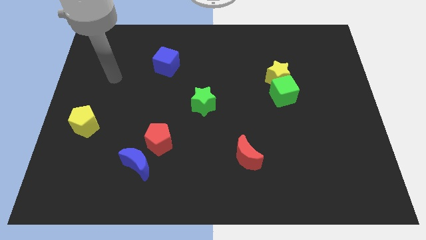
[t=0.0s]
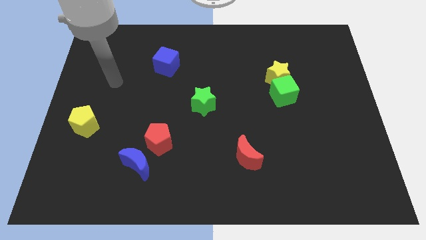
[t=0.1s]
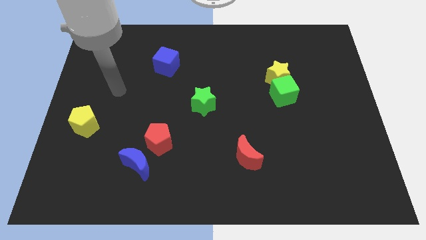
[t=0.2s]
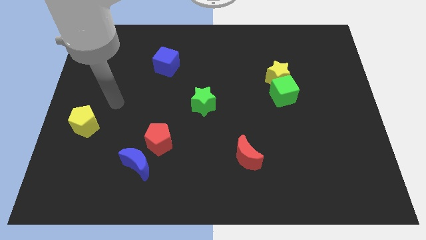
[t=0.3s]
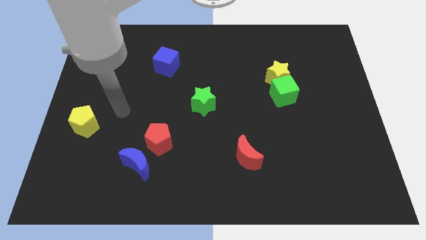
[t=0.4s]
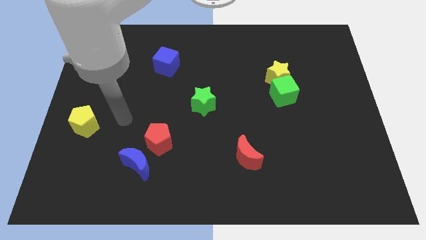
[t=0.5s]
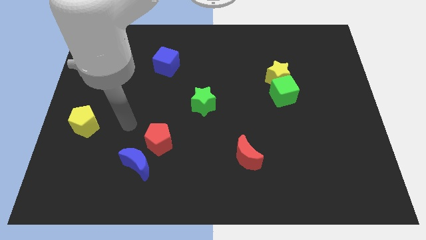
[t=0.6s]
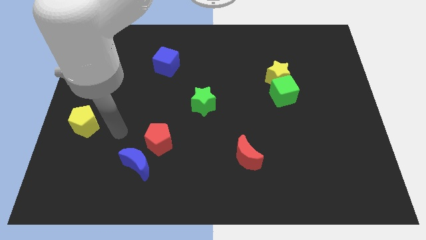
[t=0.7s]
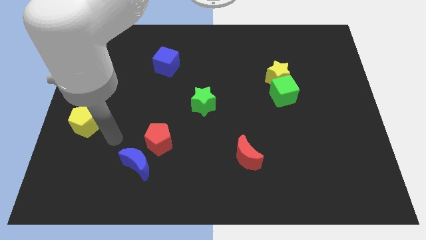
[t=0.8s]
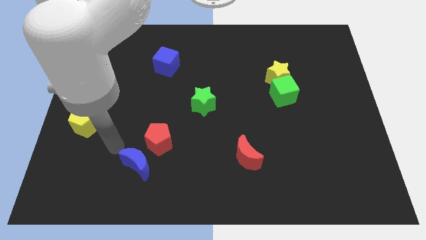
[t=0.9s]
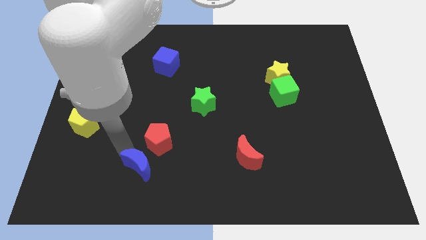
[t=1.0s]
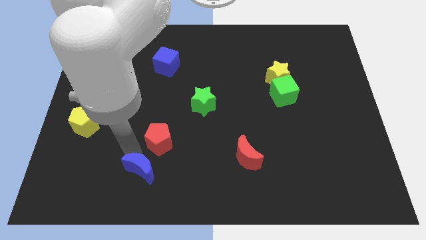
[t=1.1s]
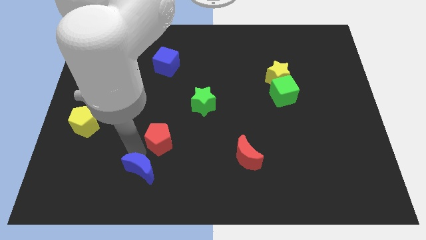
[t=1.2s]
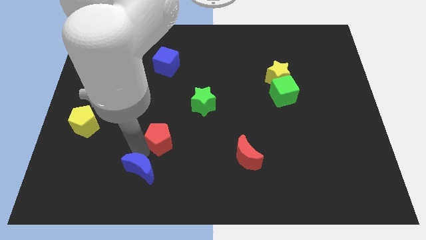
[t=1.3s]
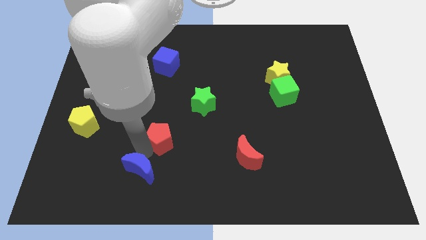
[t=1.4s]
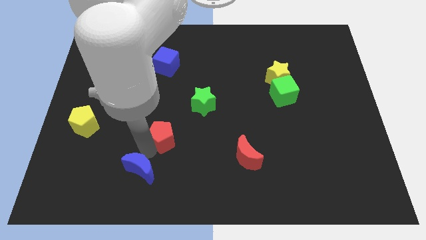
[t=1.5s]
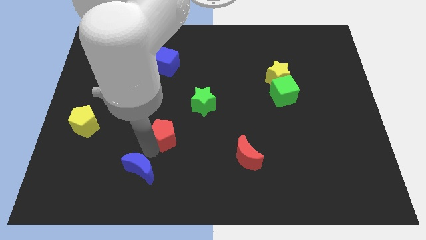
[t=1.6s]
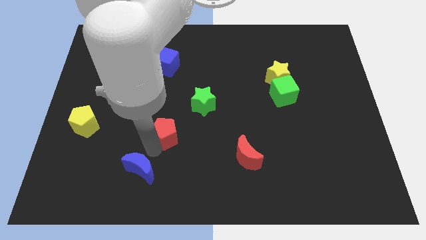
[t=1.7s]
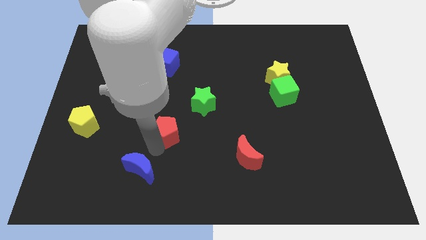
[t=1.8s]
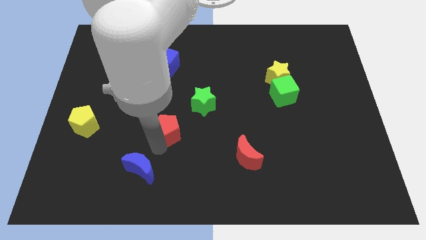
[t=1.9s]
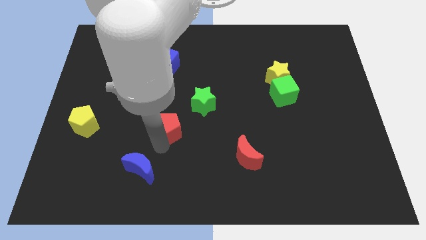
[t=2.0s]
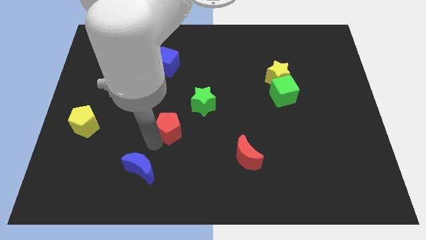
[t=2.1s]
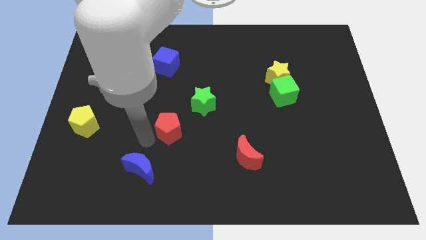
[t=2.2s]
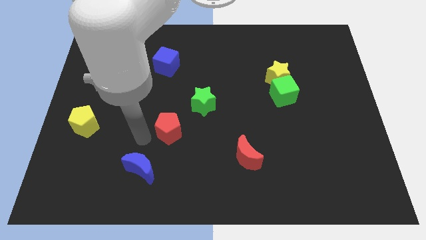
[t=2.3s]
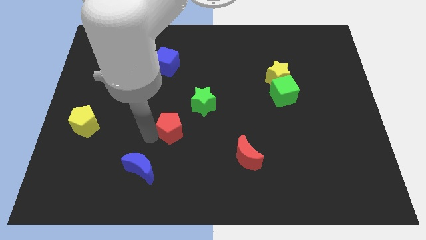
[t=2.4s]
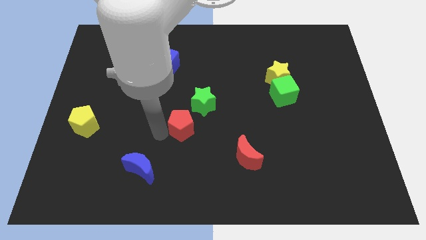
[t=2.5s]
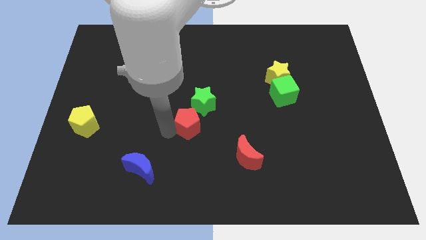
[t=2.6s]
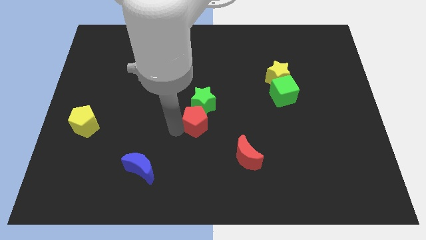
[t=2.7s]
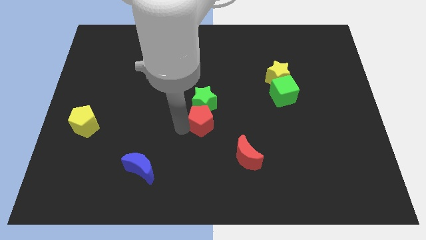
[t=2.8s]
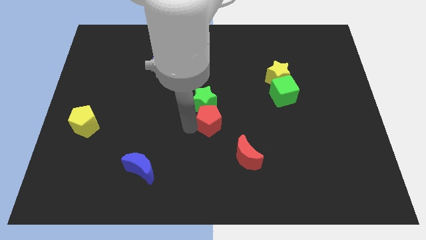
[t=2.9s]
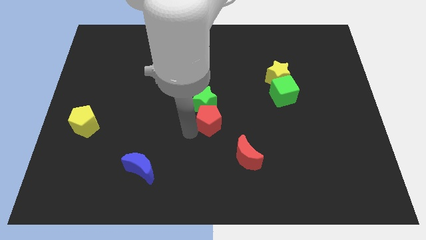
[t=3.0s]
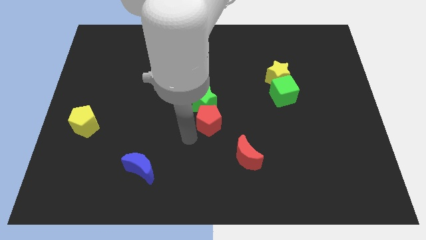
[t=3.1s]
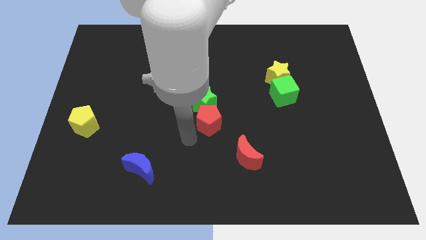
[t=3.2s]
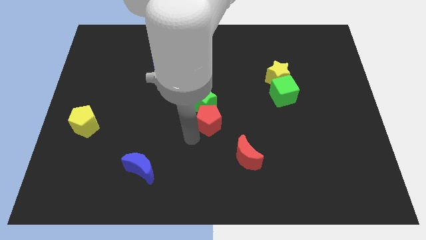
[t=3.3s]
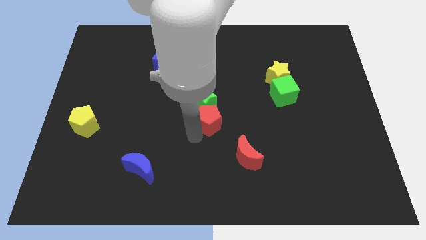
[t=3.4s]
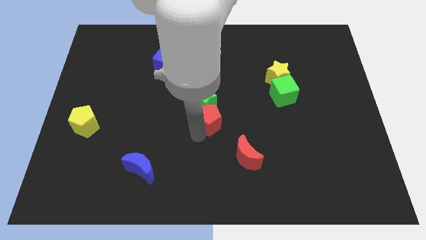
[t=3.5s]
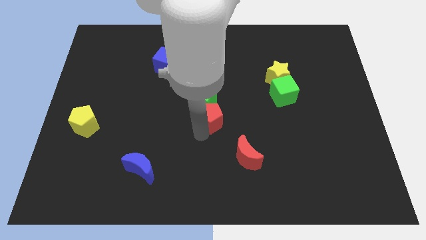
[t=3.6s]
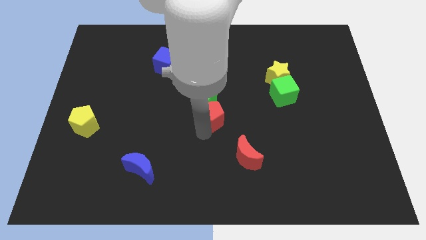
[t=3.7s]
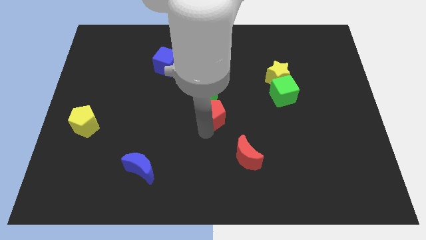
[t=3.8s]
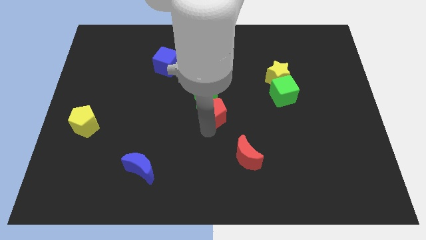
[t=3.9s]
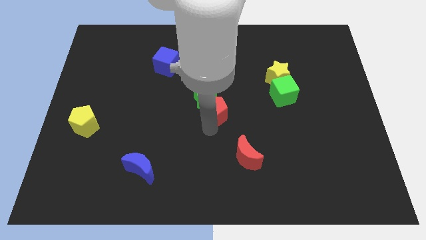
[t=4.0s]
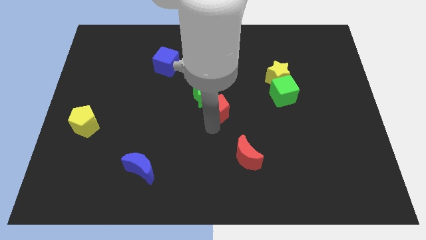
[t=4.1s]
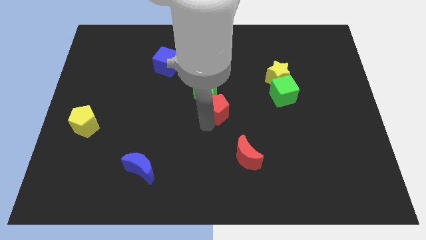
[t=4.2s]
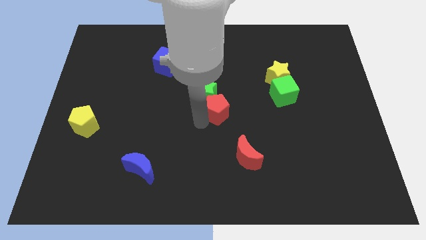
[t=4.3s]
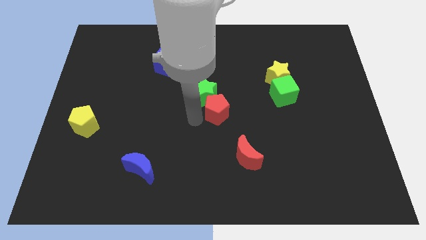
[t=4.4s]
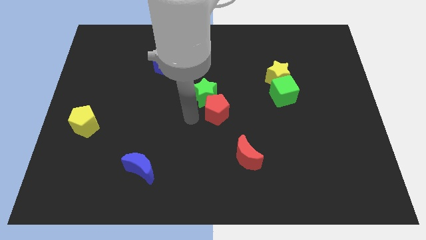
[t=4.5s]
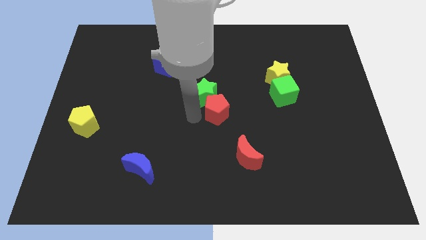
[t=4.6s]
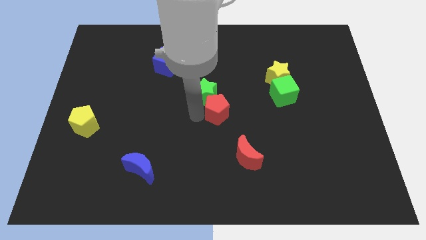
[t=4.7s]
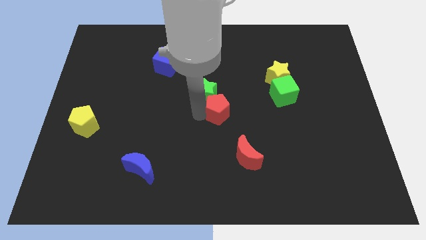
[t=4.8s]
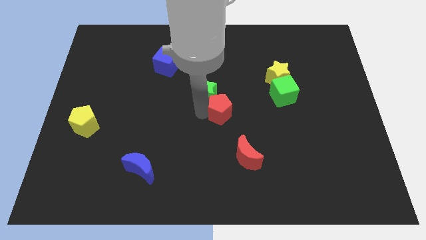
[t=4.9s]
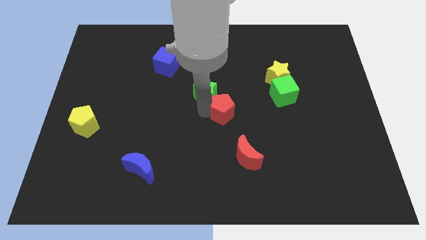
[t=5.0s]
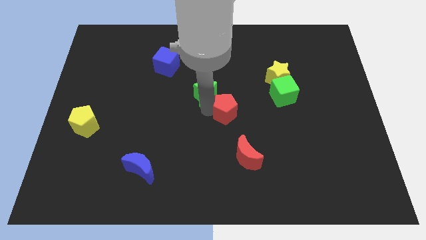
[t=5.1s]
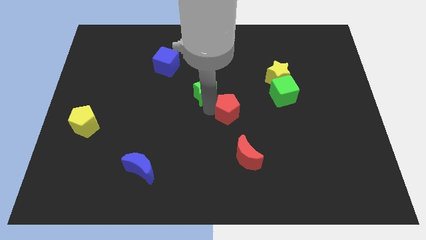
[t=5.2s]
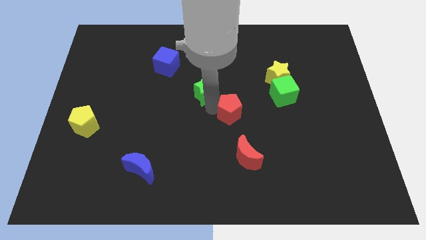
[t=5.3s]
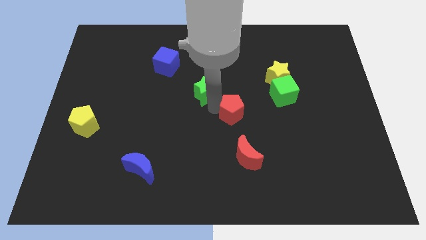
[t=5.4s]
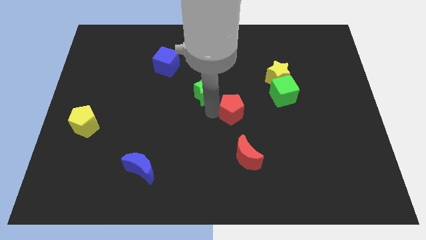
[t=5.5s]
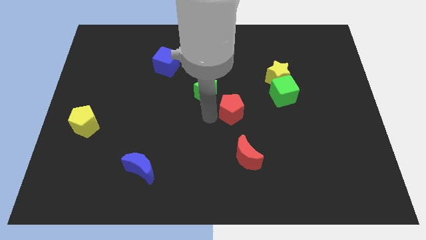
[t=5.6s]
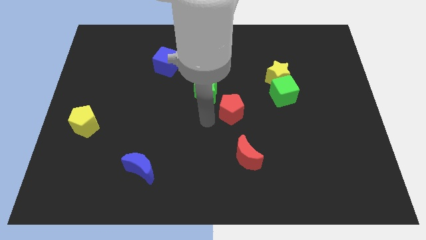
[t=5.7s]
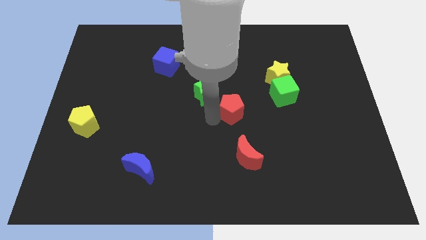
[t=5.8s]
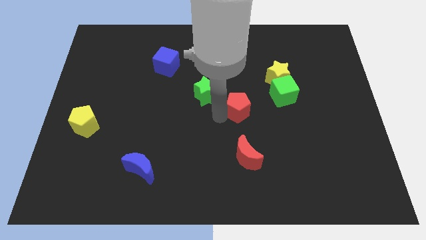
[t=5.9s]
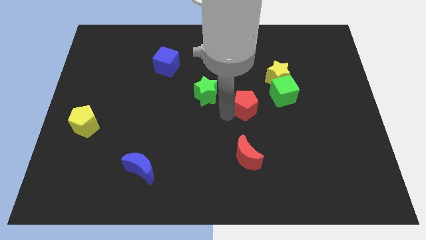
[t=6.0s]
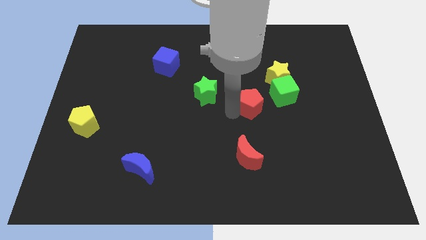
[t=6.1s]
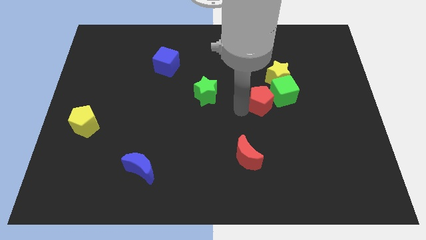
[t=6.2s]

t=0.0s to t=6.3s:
slide the red pentagon next to the green cube
